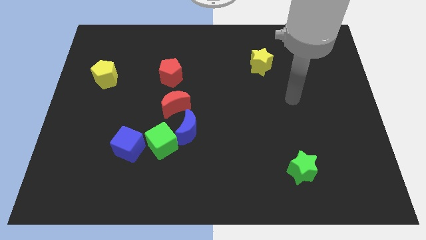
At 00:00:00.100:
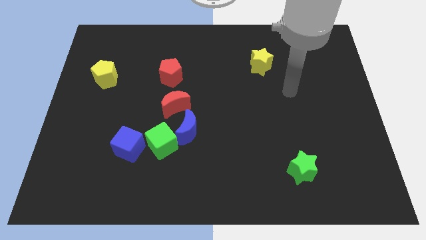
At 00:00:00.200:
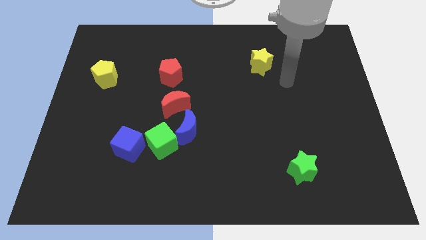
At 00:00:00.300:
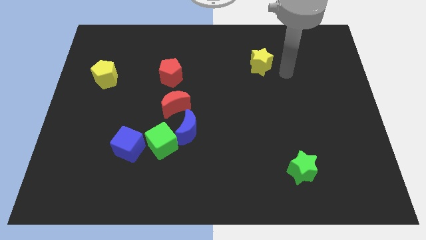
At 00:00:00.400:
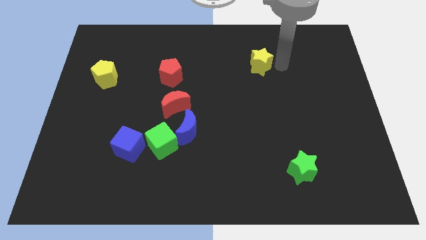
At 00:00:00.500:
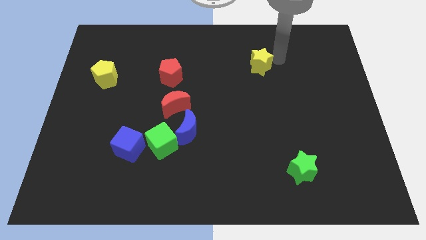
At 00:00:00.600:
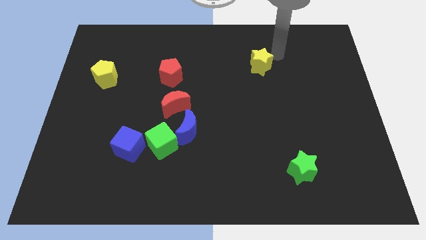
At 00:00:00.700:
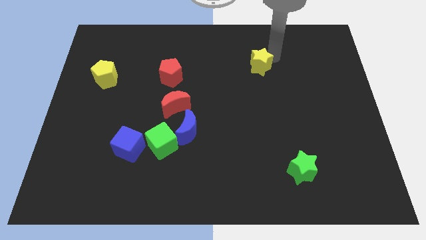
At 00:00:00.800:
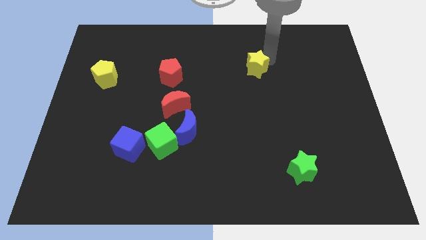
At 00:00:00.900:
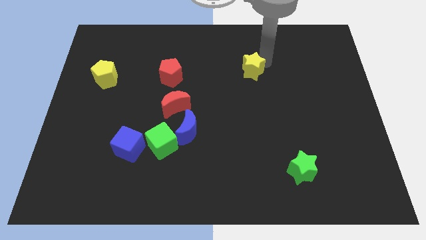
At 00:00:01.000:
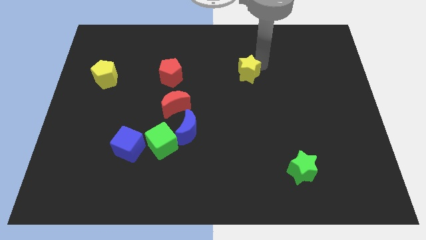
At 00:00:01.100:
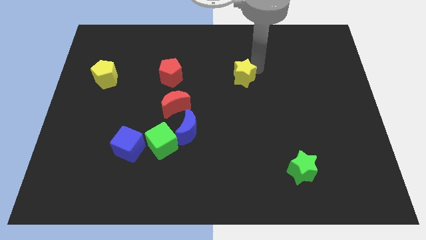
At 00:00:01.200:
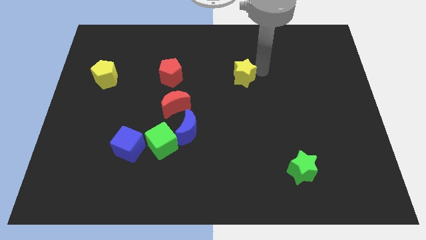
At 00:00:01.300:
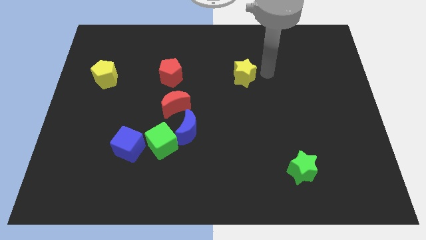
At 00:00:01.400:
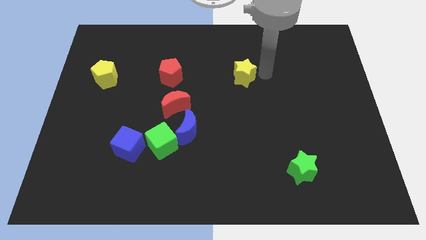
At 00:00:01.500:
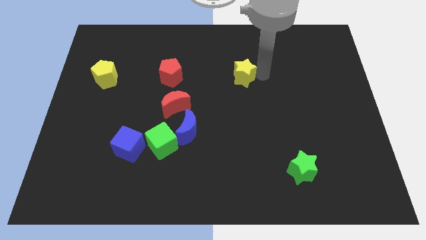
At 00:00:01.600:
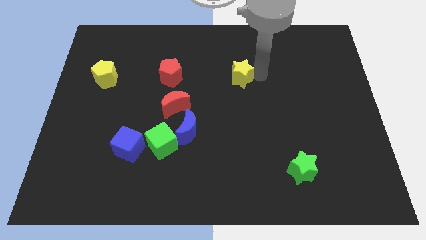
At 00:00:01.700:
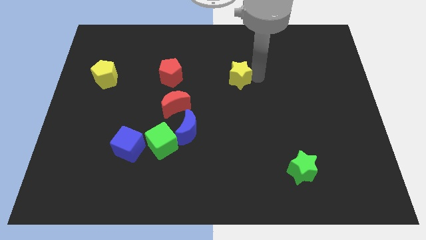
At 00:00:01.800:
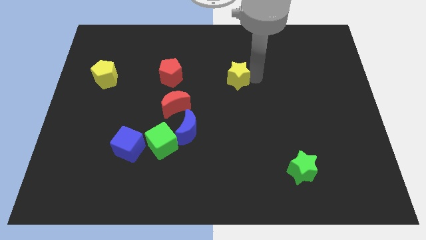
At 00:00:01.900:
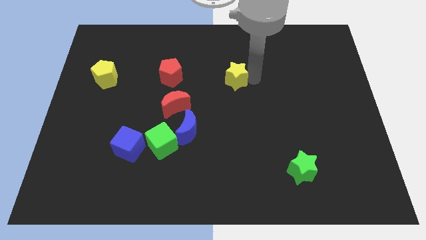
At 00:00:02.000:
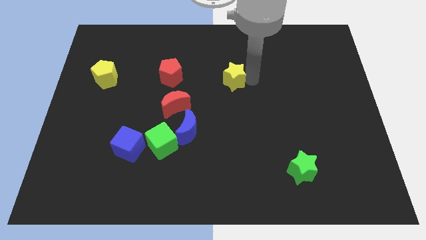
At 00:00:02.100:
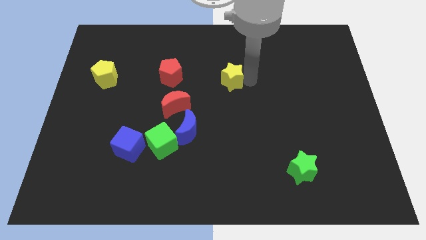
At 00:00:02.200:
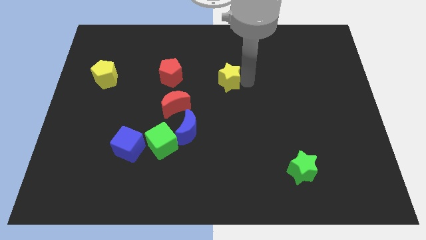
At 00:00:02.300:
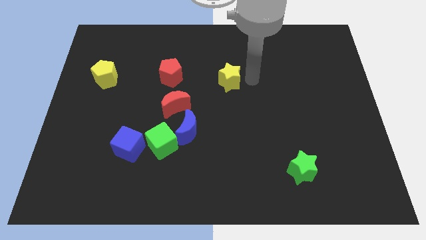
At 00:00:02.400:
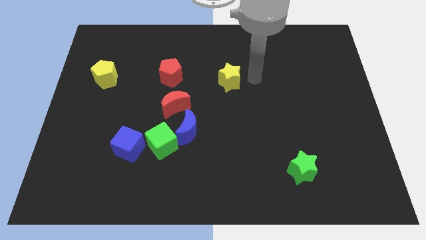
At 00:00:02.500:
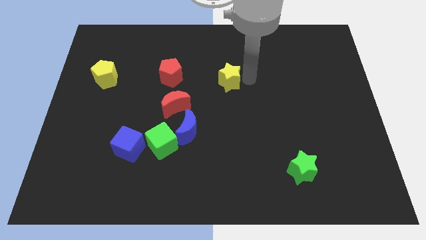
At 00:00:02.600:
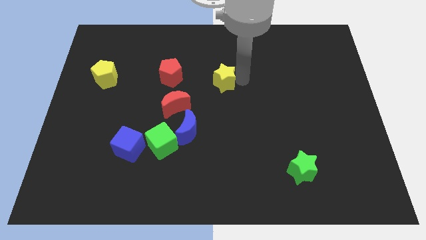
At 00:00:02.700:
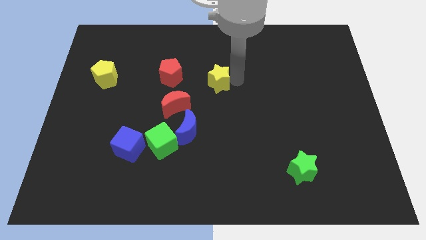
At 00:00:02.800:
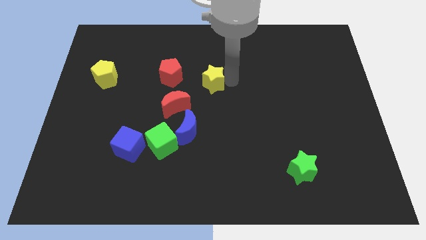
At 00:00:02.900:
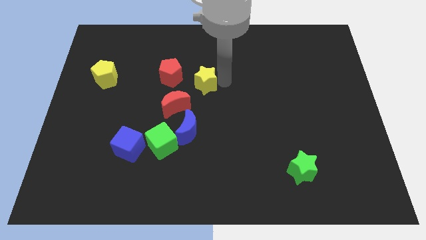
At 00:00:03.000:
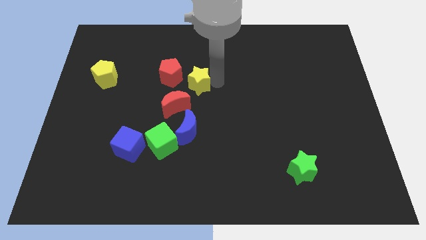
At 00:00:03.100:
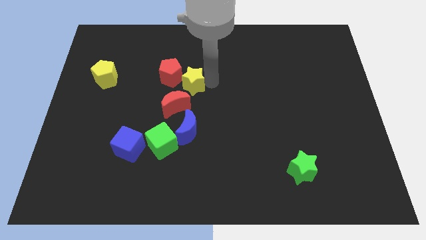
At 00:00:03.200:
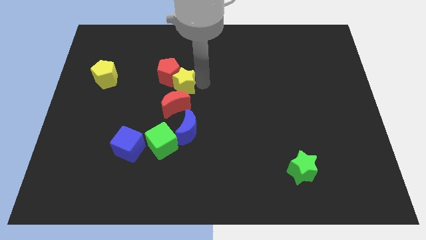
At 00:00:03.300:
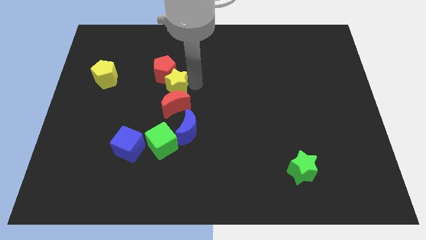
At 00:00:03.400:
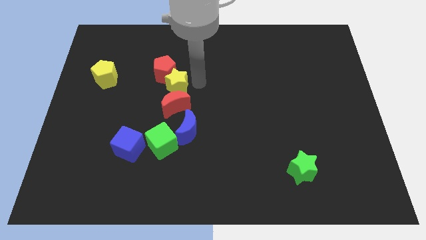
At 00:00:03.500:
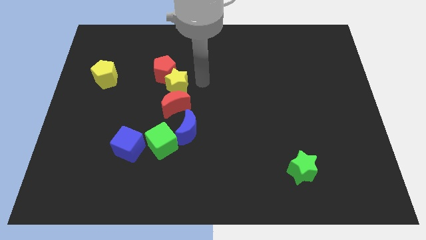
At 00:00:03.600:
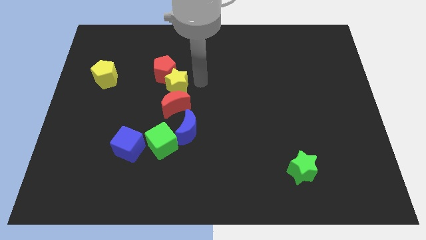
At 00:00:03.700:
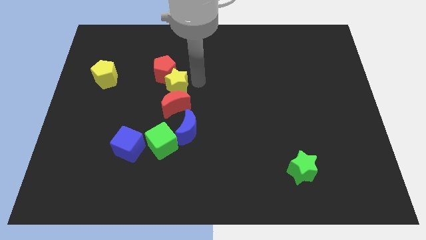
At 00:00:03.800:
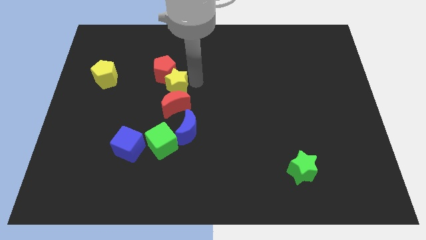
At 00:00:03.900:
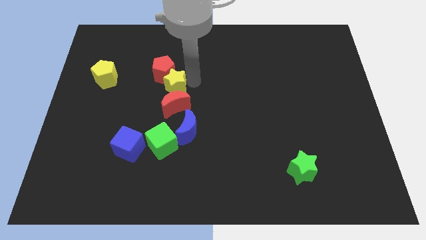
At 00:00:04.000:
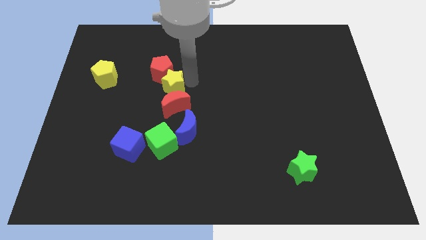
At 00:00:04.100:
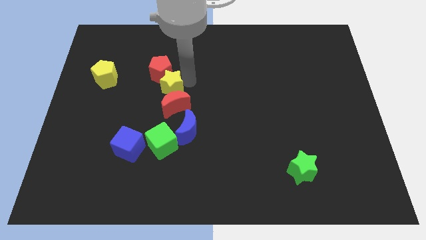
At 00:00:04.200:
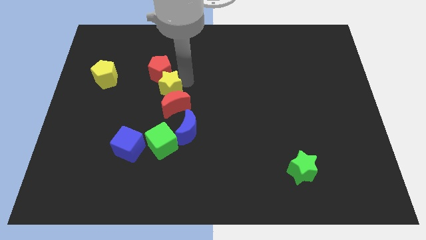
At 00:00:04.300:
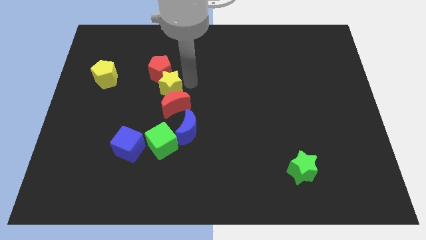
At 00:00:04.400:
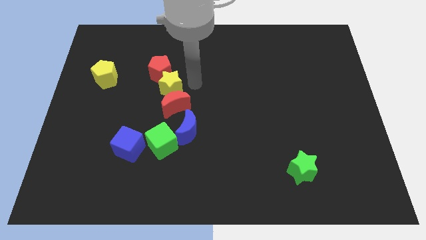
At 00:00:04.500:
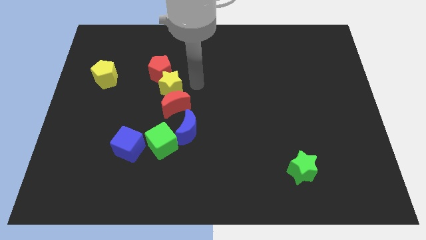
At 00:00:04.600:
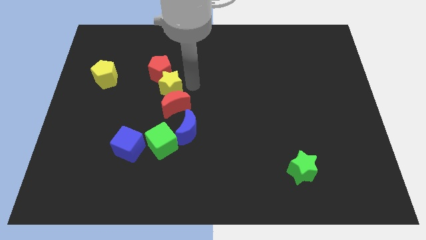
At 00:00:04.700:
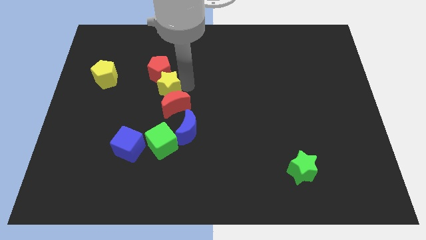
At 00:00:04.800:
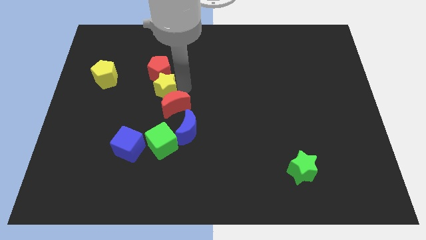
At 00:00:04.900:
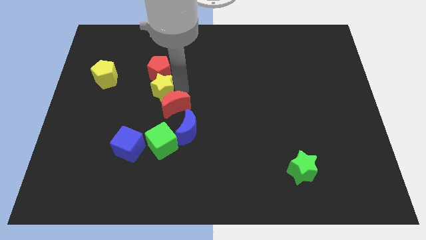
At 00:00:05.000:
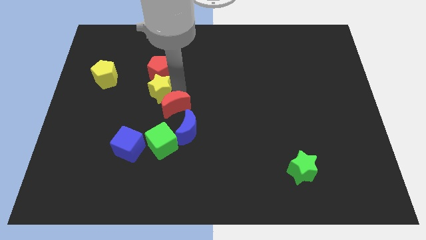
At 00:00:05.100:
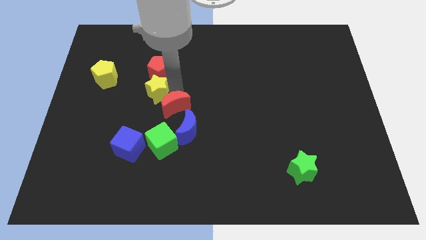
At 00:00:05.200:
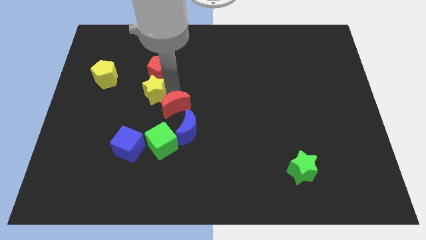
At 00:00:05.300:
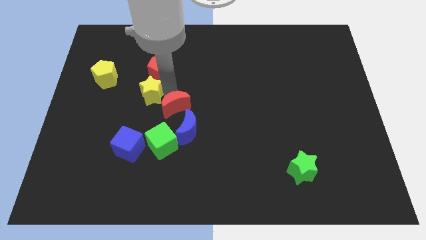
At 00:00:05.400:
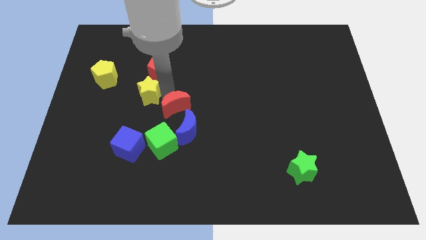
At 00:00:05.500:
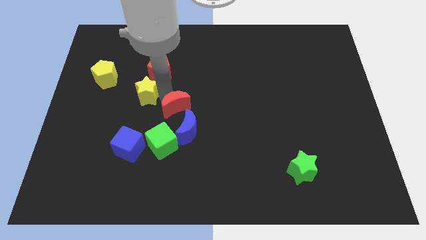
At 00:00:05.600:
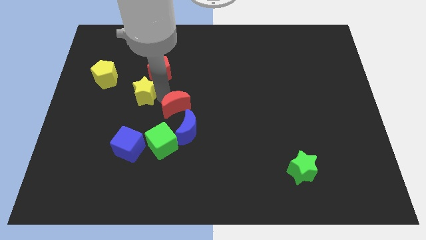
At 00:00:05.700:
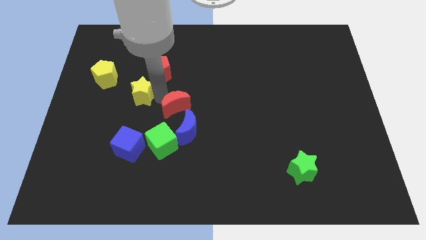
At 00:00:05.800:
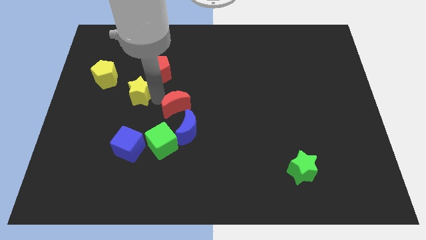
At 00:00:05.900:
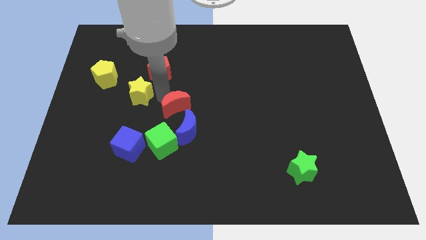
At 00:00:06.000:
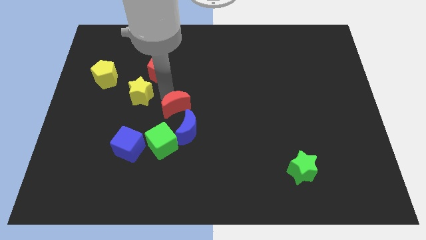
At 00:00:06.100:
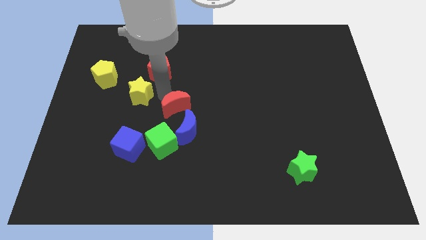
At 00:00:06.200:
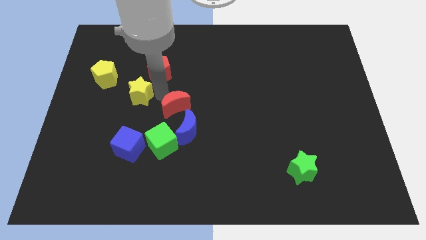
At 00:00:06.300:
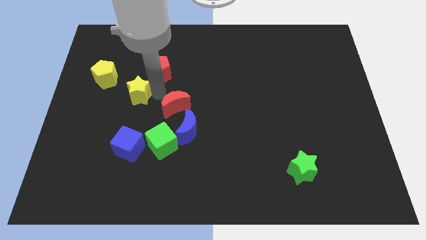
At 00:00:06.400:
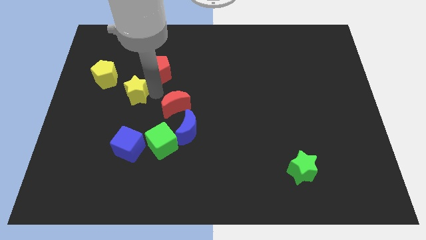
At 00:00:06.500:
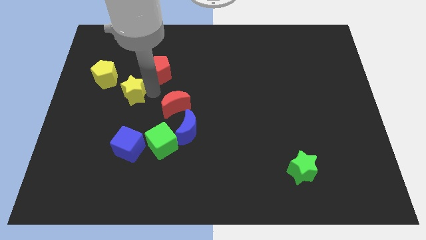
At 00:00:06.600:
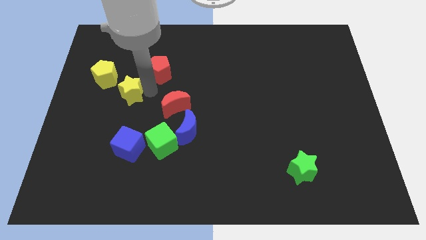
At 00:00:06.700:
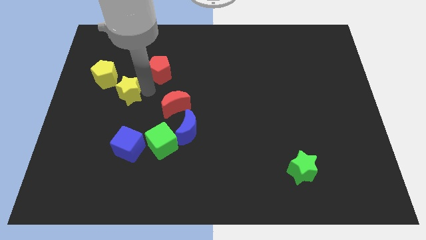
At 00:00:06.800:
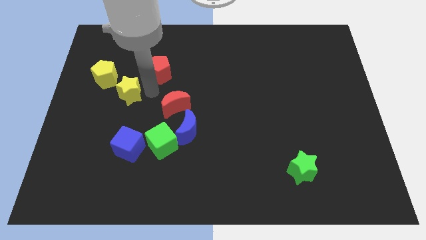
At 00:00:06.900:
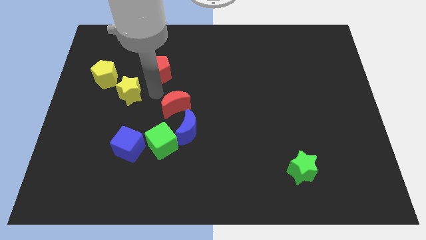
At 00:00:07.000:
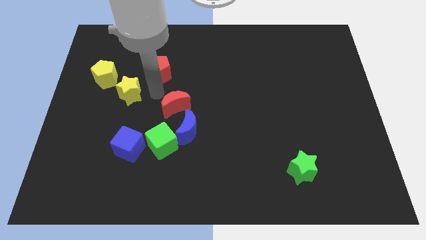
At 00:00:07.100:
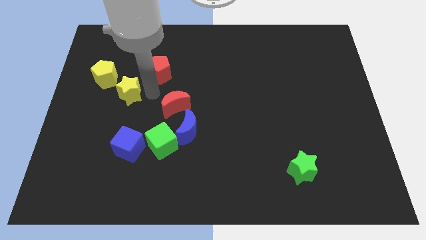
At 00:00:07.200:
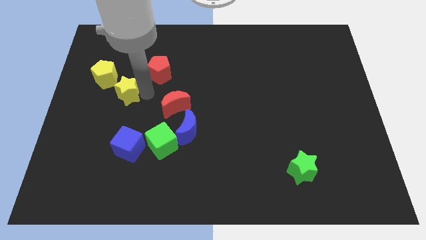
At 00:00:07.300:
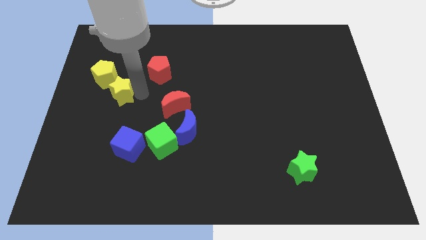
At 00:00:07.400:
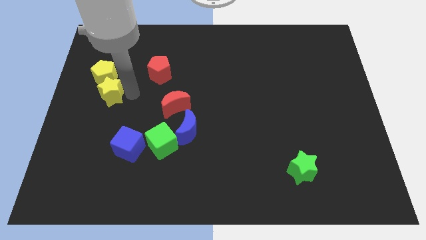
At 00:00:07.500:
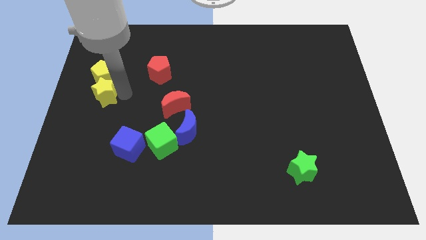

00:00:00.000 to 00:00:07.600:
slide the yellow star to the left side of the board
